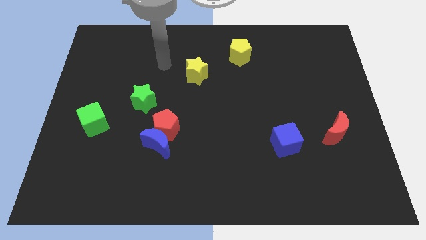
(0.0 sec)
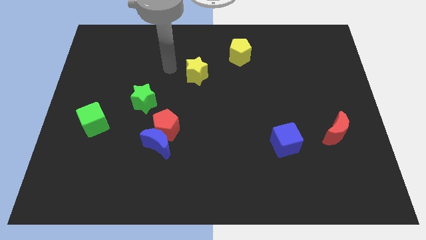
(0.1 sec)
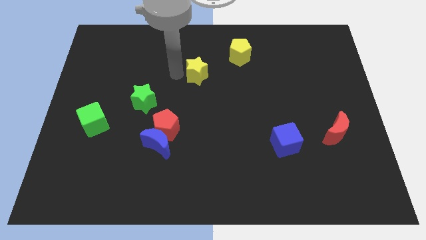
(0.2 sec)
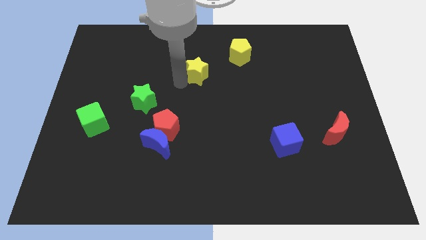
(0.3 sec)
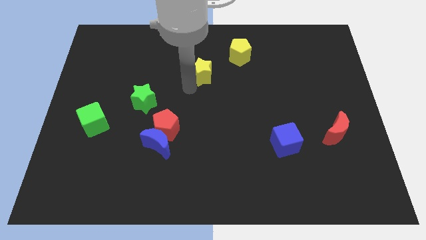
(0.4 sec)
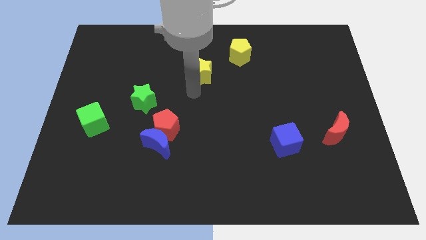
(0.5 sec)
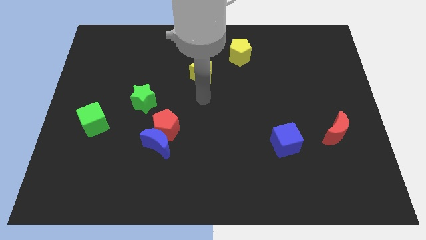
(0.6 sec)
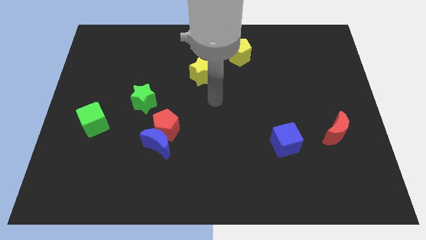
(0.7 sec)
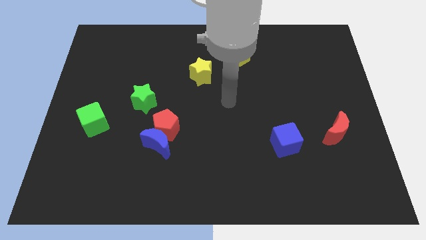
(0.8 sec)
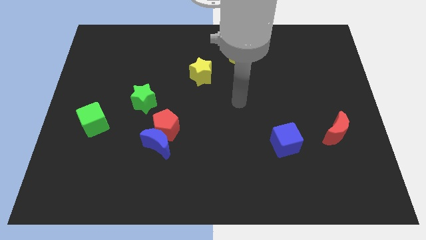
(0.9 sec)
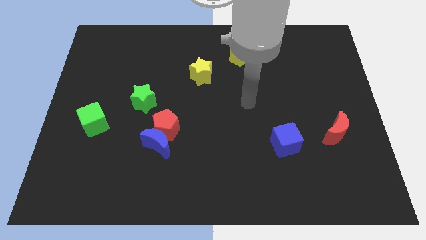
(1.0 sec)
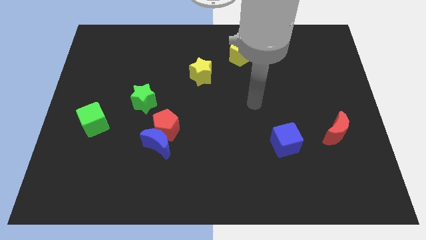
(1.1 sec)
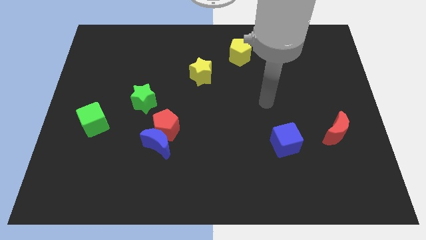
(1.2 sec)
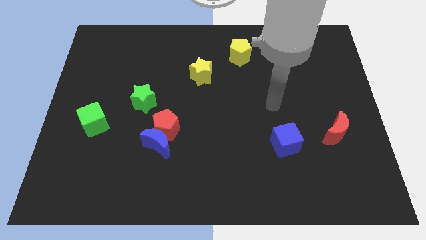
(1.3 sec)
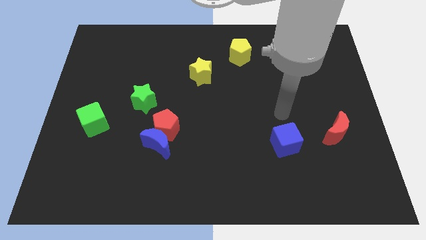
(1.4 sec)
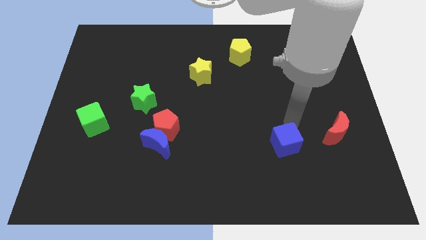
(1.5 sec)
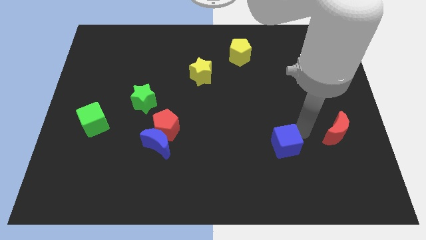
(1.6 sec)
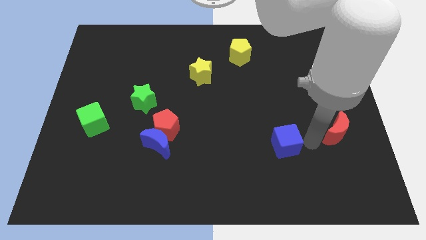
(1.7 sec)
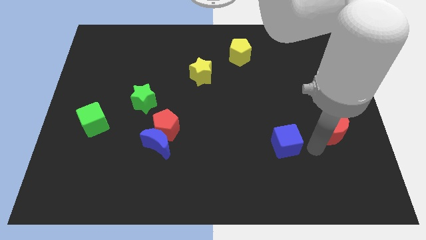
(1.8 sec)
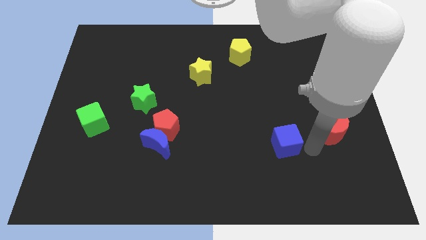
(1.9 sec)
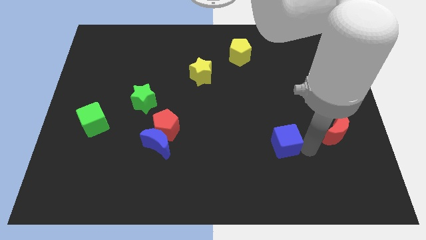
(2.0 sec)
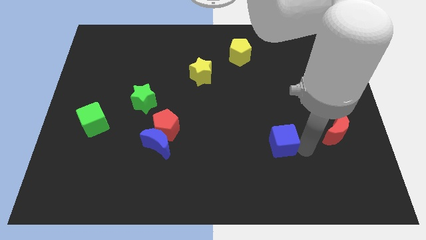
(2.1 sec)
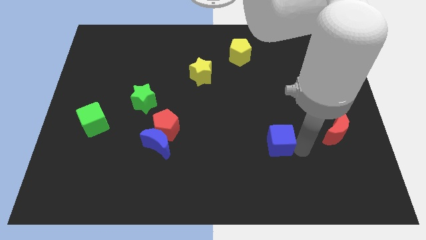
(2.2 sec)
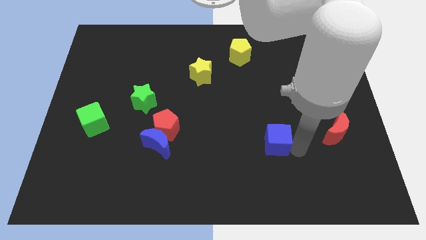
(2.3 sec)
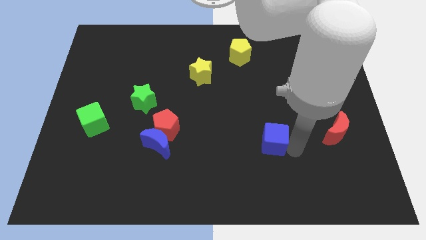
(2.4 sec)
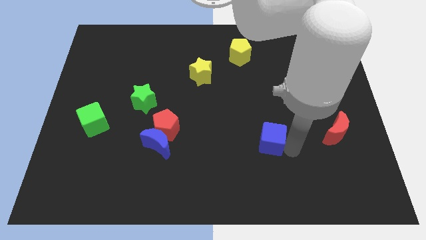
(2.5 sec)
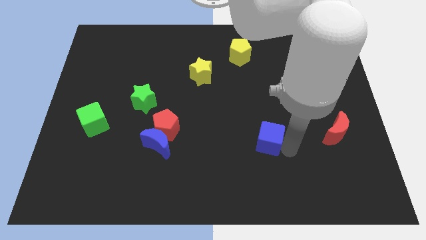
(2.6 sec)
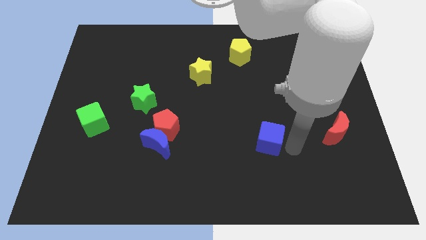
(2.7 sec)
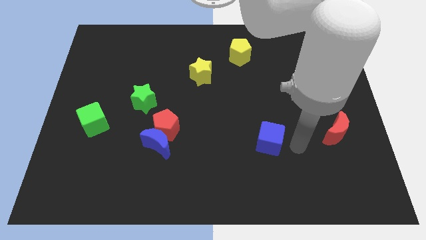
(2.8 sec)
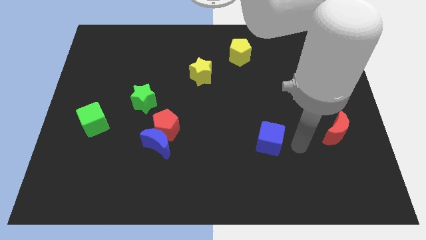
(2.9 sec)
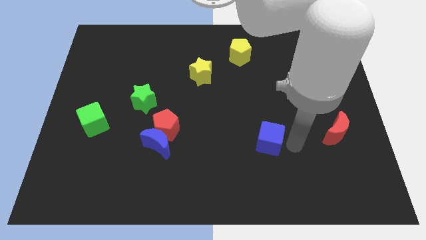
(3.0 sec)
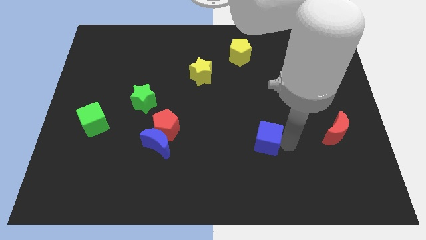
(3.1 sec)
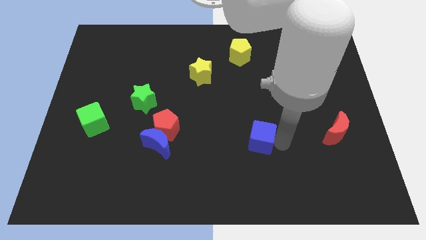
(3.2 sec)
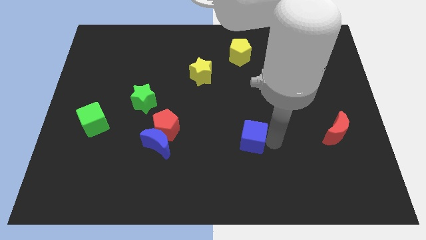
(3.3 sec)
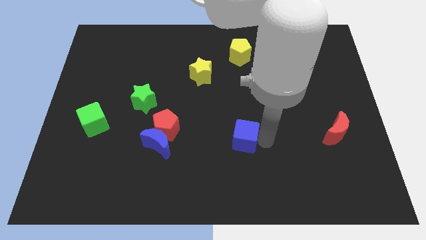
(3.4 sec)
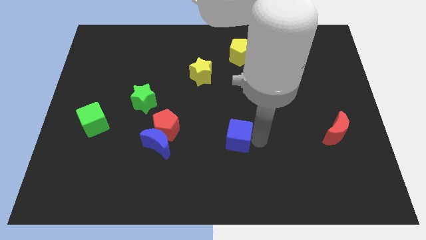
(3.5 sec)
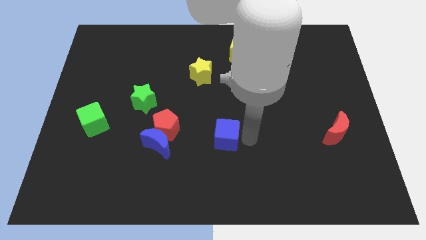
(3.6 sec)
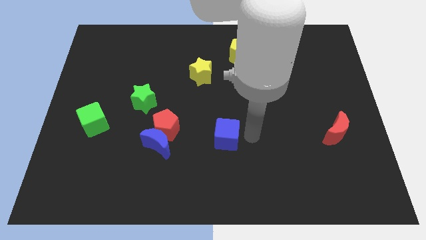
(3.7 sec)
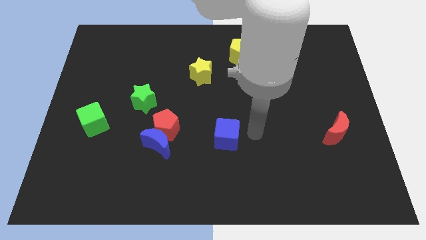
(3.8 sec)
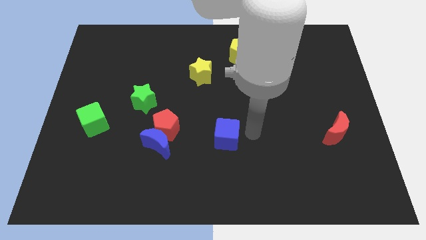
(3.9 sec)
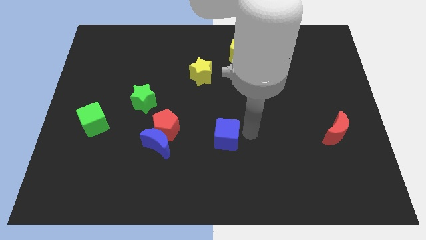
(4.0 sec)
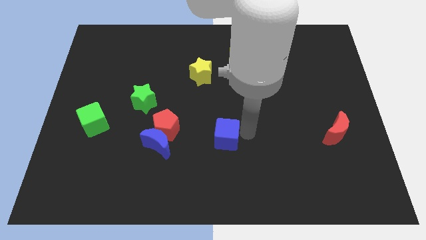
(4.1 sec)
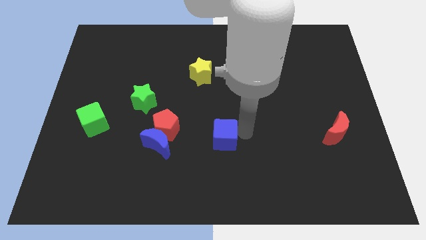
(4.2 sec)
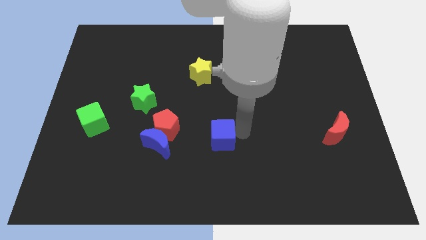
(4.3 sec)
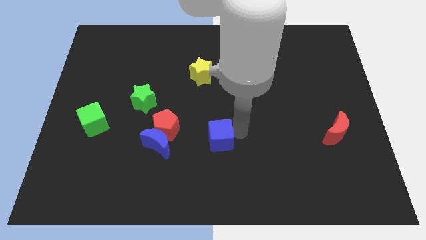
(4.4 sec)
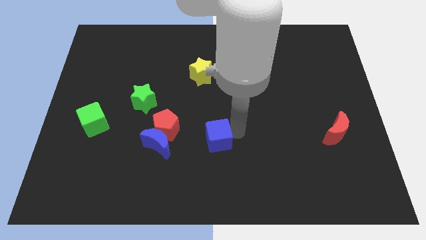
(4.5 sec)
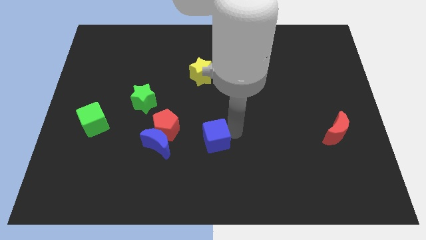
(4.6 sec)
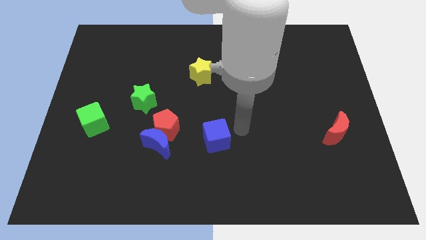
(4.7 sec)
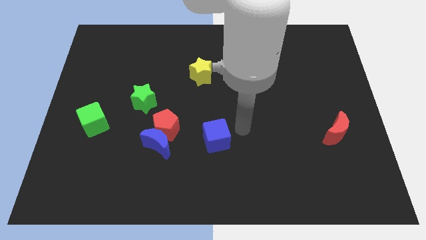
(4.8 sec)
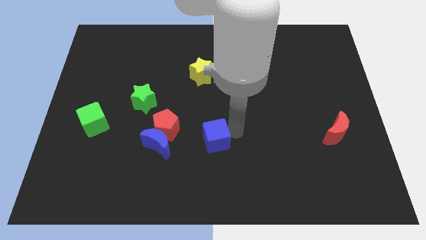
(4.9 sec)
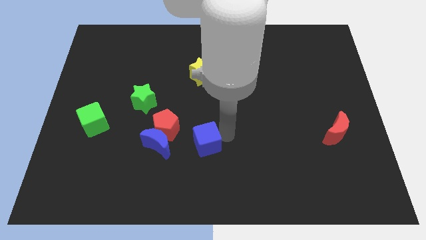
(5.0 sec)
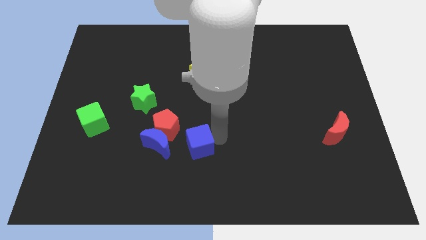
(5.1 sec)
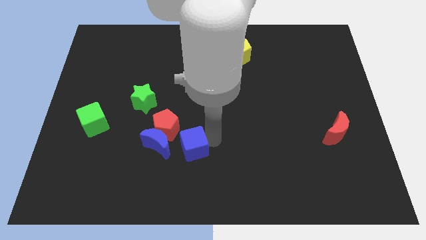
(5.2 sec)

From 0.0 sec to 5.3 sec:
slide the blue cube left

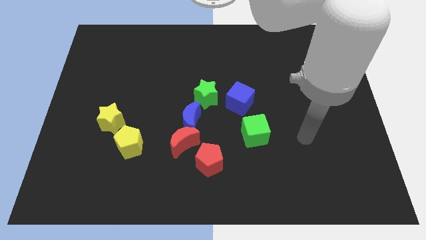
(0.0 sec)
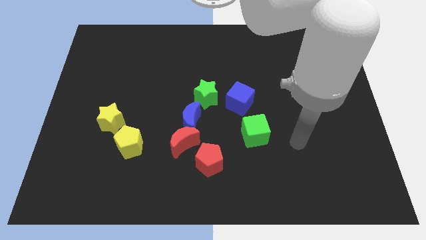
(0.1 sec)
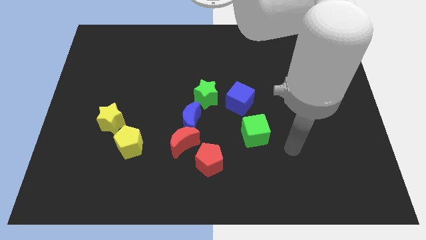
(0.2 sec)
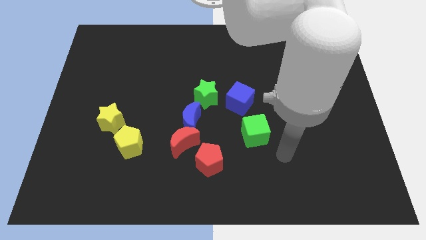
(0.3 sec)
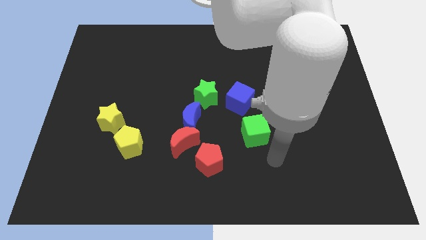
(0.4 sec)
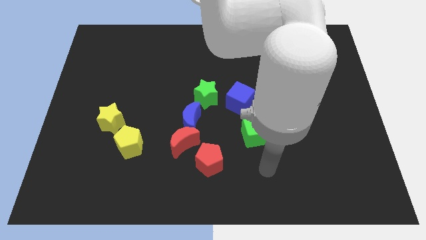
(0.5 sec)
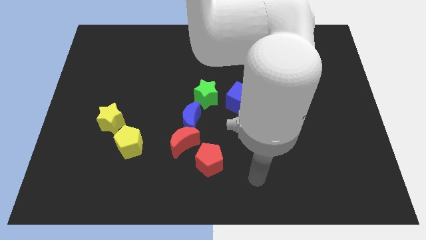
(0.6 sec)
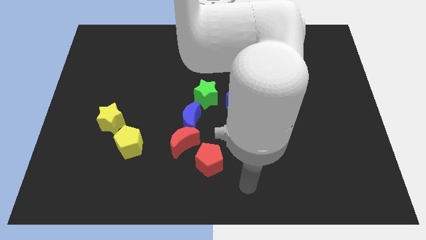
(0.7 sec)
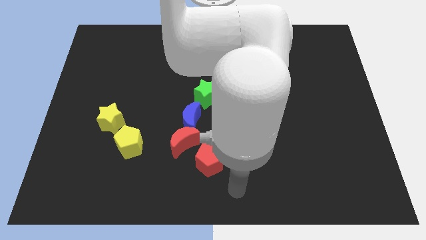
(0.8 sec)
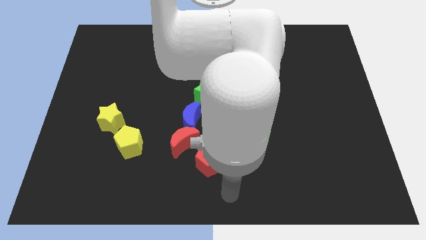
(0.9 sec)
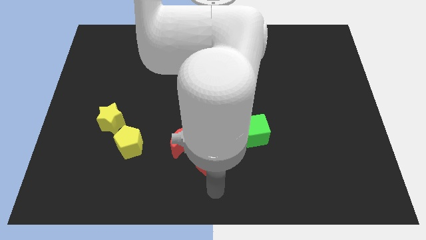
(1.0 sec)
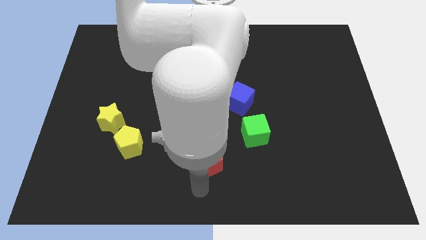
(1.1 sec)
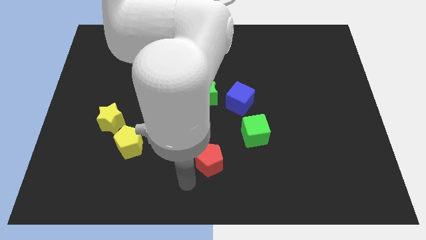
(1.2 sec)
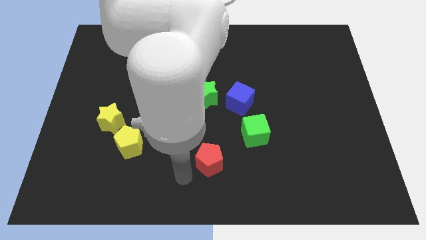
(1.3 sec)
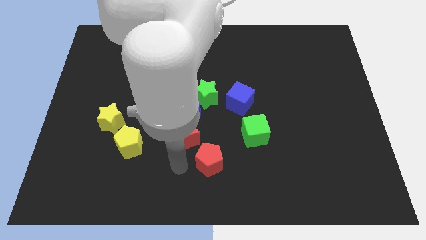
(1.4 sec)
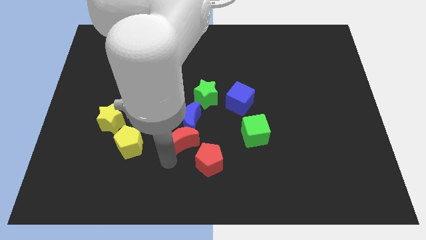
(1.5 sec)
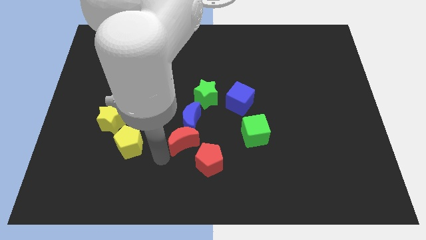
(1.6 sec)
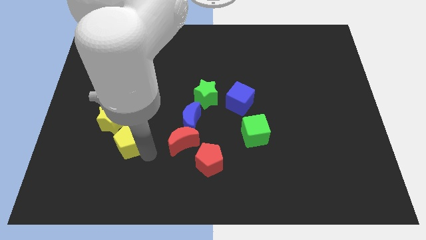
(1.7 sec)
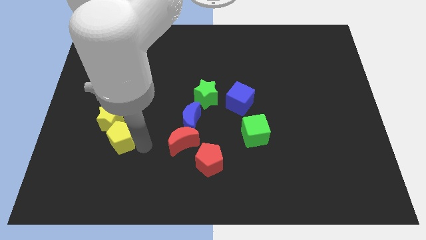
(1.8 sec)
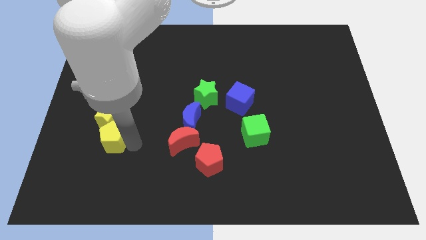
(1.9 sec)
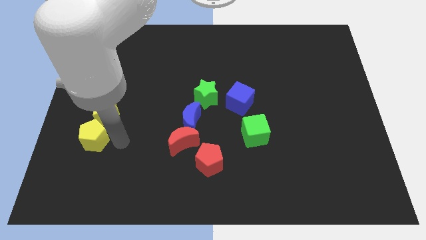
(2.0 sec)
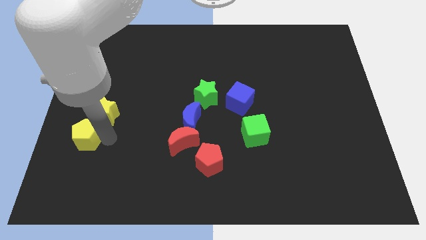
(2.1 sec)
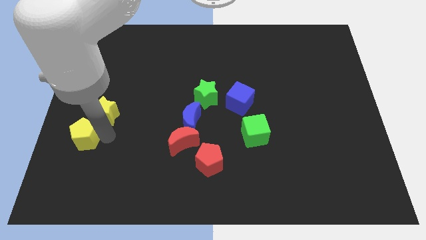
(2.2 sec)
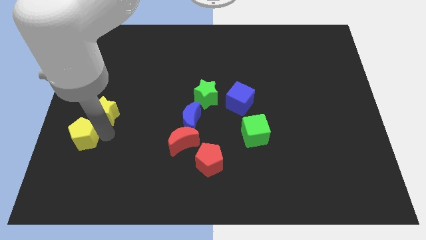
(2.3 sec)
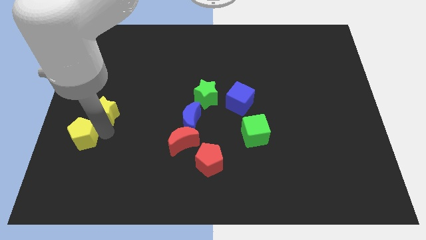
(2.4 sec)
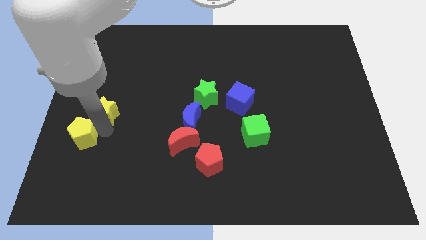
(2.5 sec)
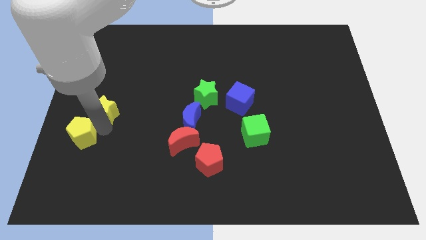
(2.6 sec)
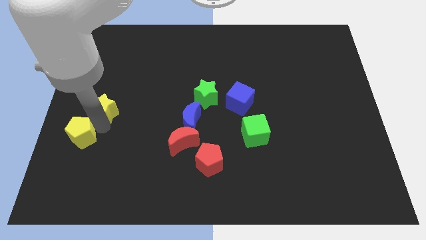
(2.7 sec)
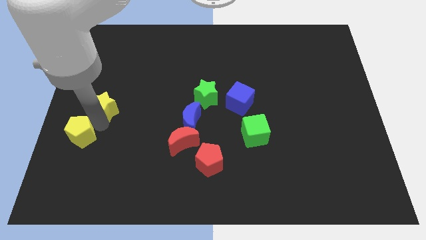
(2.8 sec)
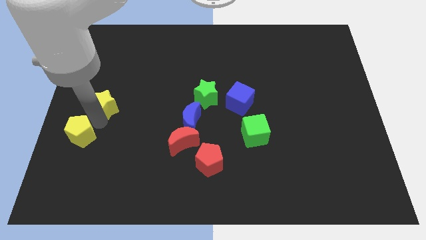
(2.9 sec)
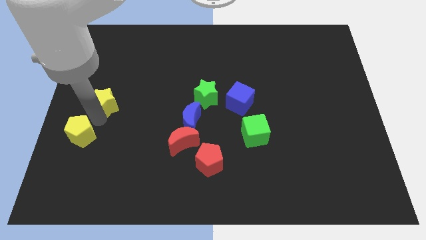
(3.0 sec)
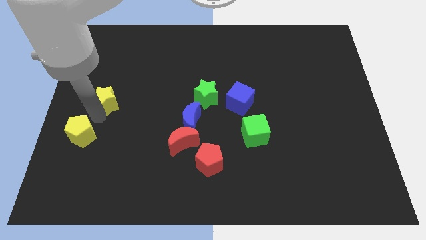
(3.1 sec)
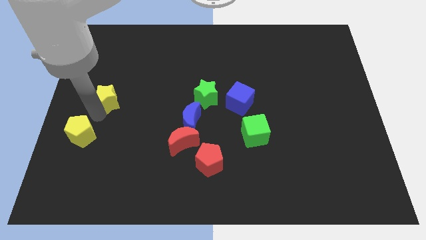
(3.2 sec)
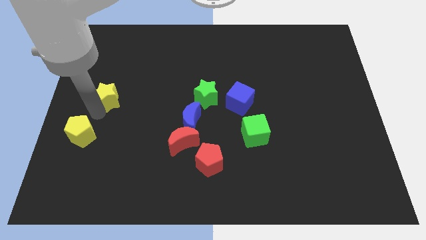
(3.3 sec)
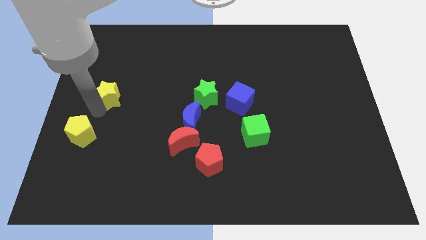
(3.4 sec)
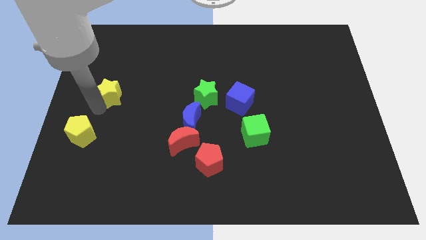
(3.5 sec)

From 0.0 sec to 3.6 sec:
slightly push the yellow star up
